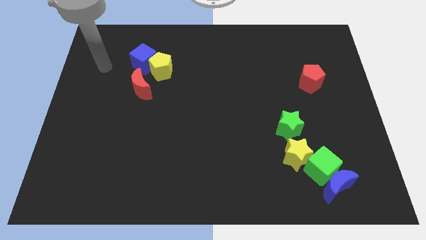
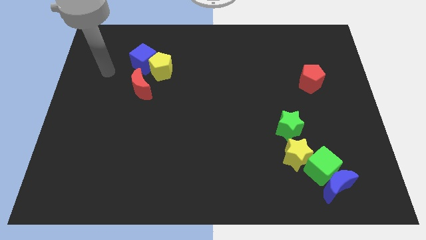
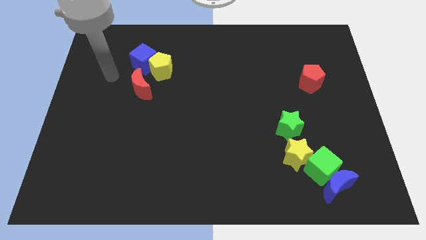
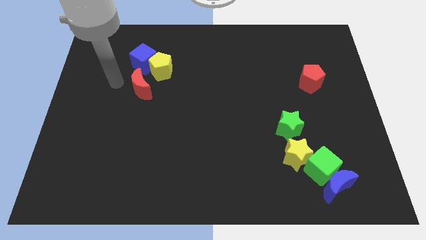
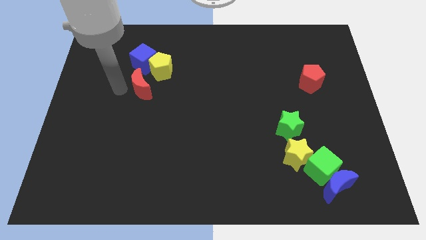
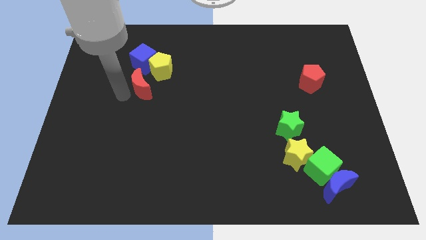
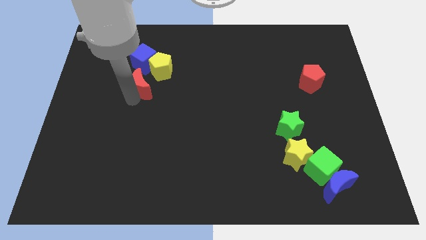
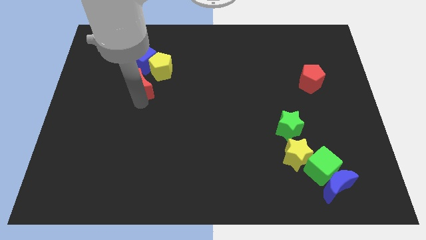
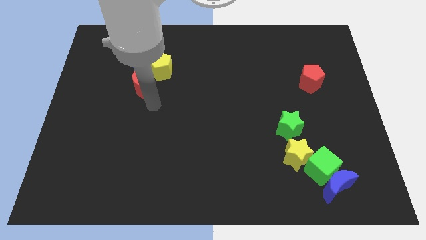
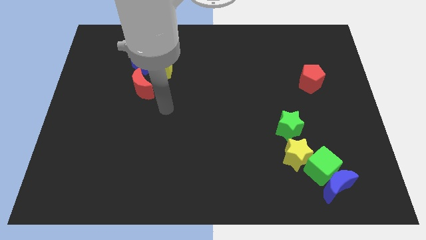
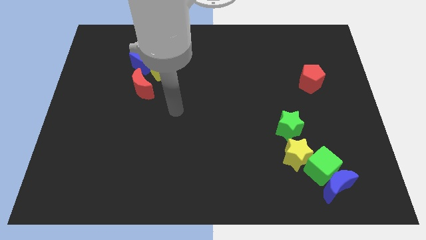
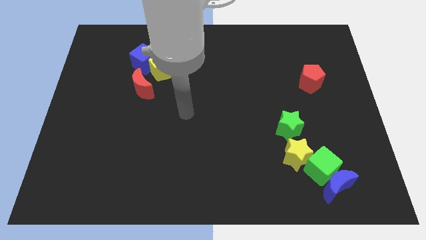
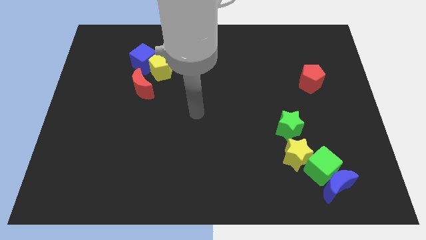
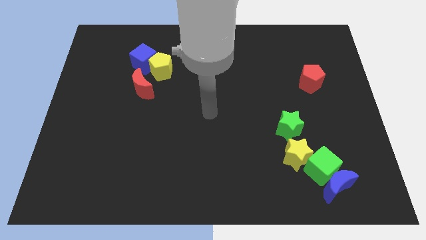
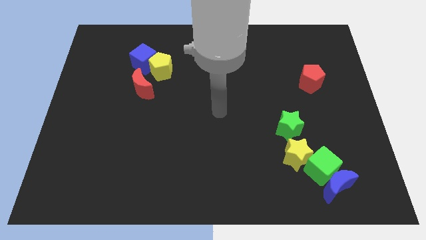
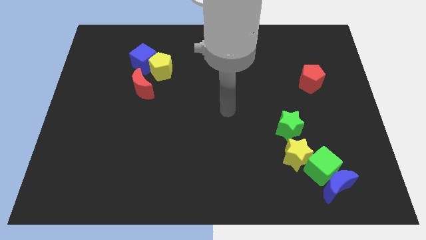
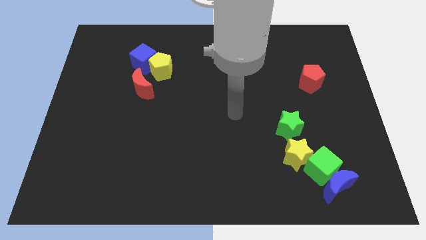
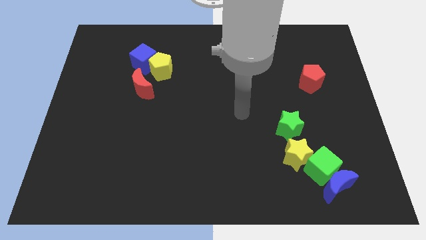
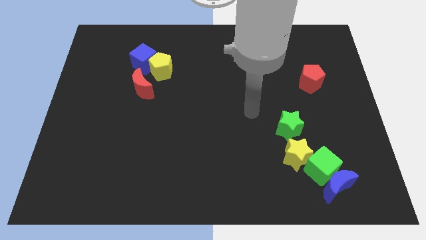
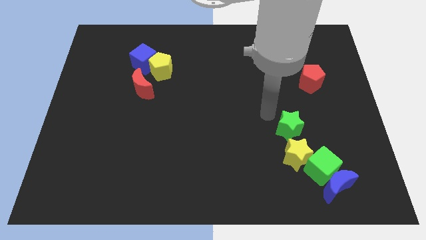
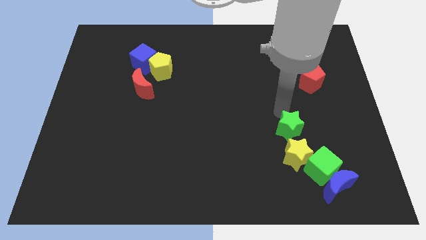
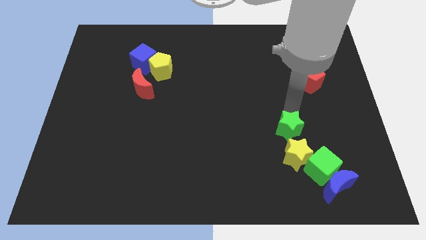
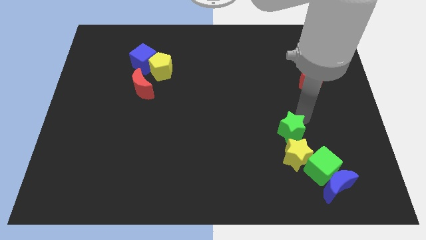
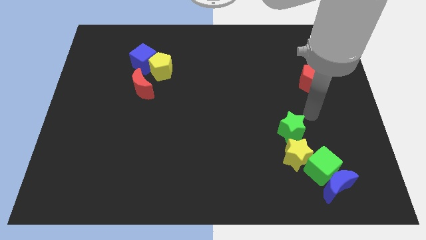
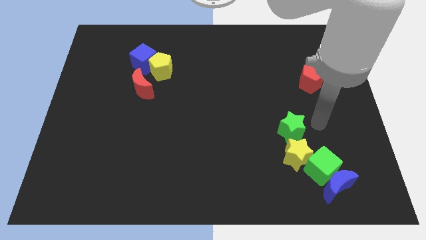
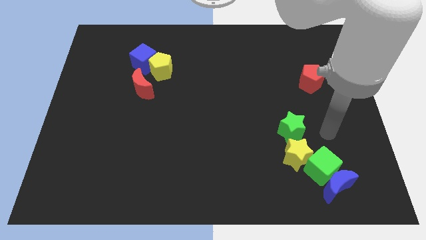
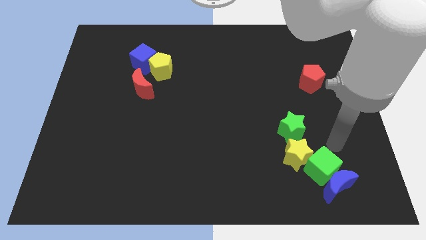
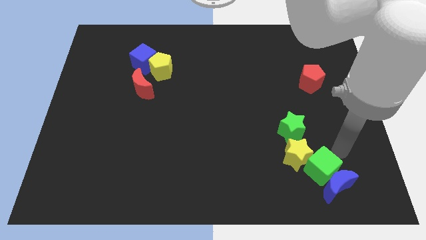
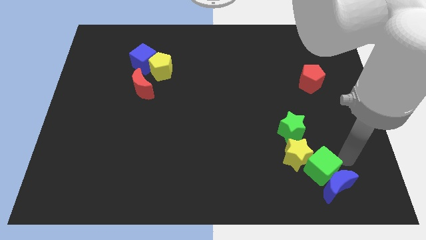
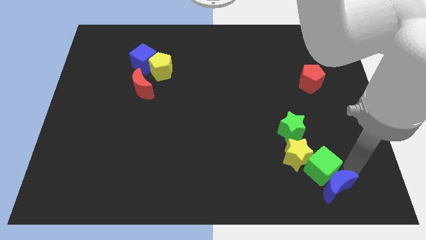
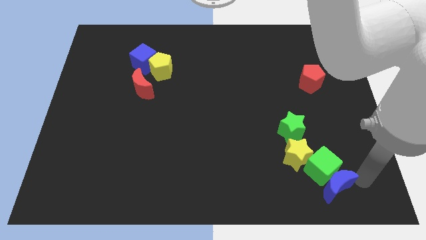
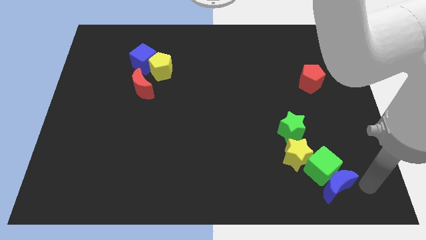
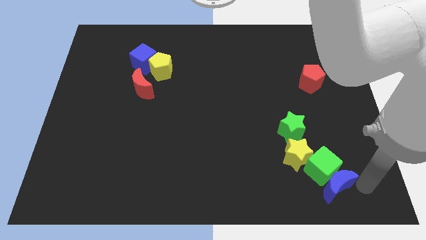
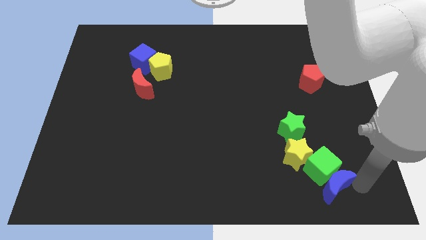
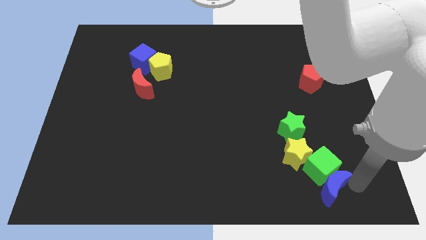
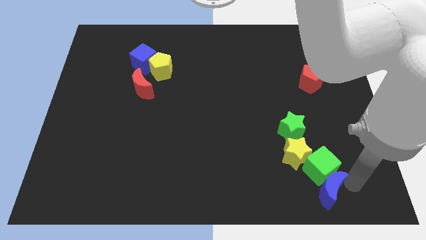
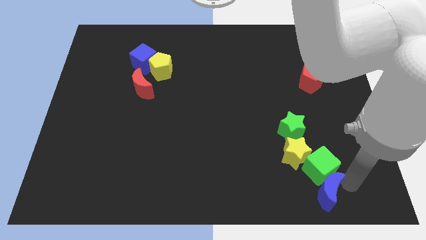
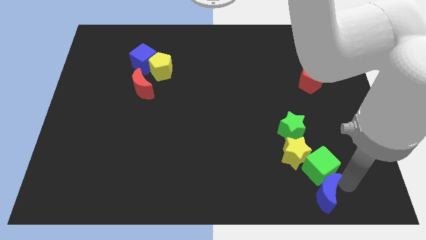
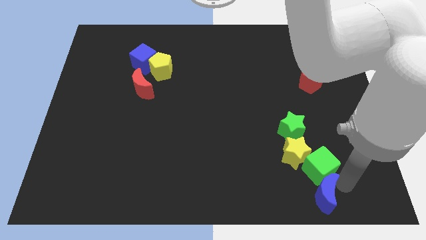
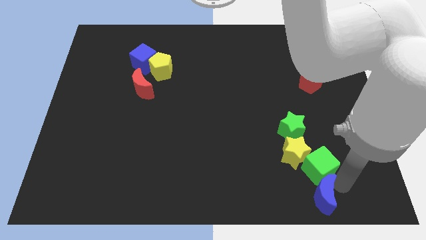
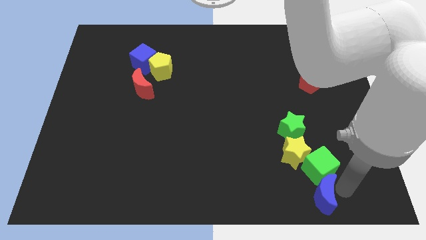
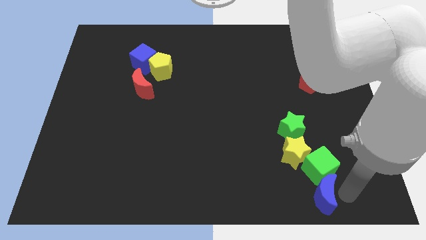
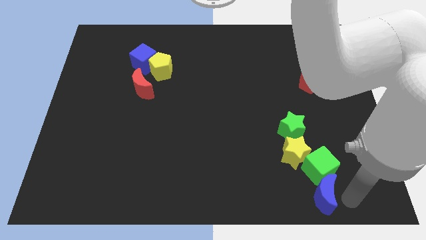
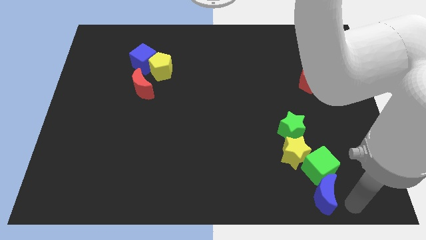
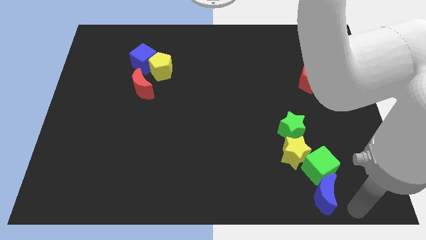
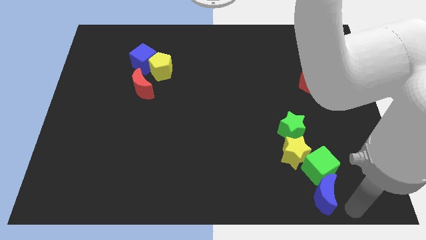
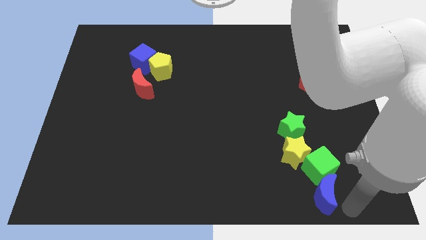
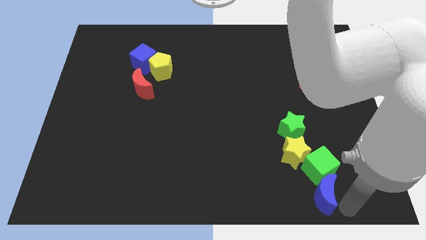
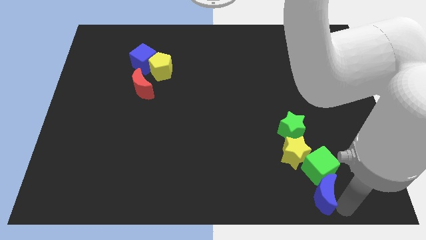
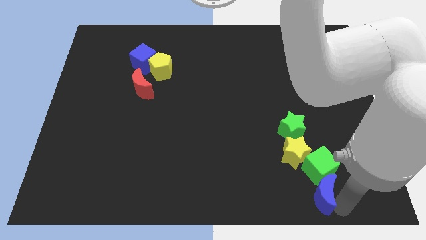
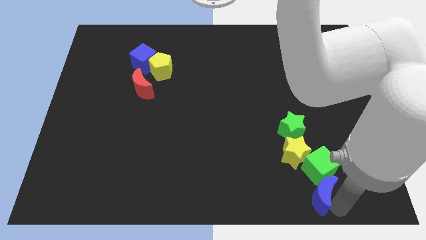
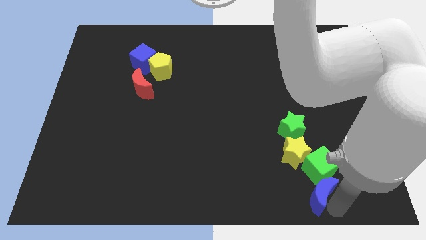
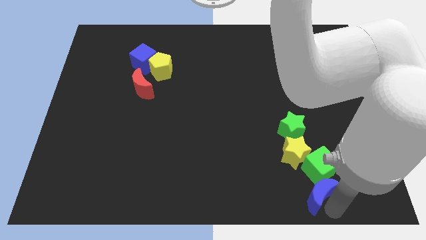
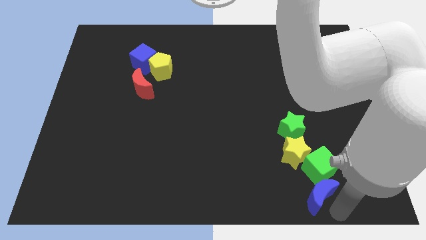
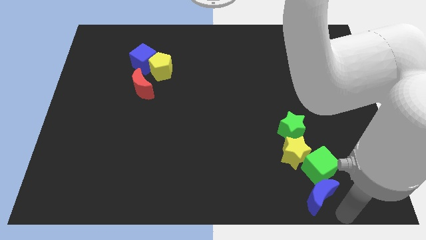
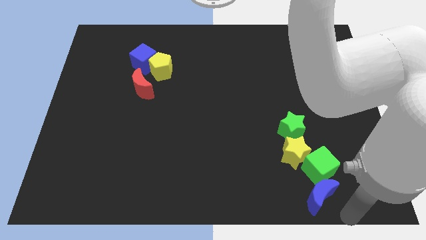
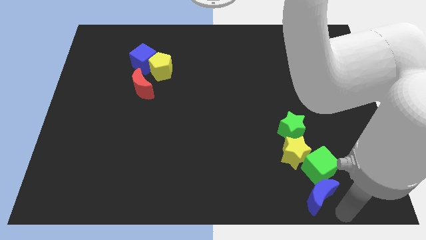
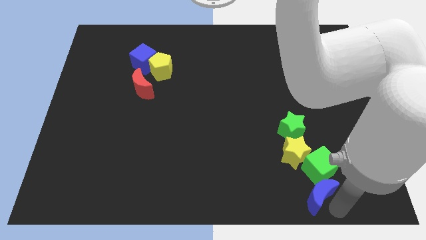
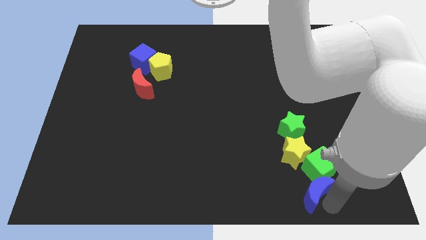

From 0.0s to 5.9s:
slide the blue moon to the bottom of the green star
